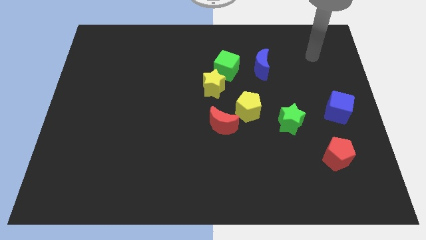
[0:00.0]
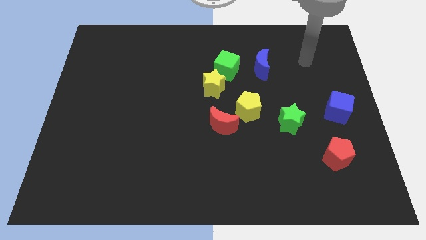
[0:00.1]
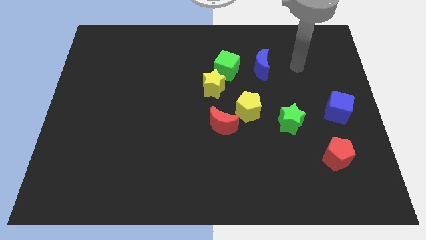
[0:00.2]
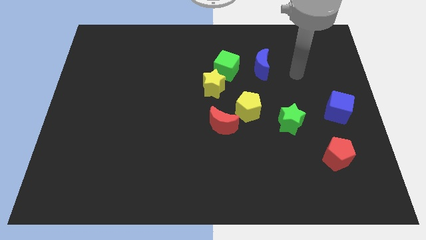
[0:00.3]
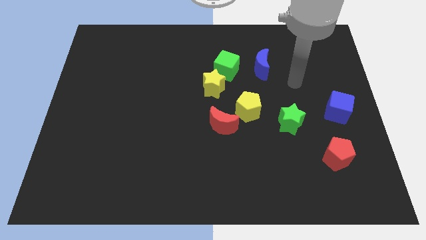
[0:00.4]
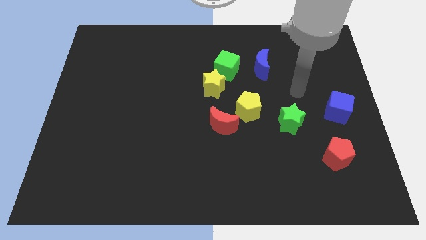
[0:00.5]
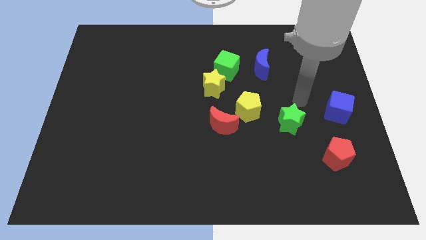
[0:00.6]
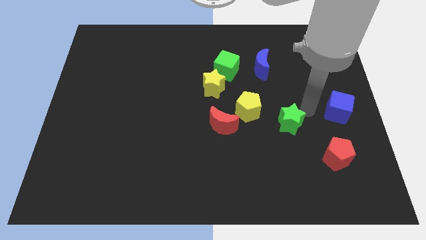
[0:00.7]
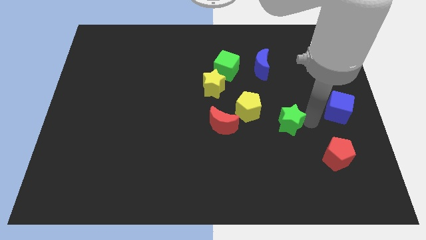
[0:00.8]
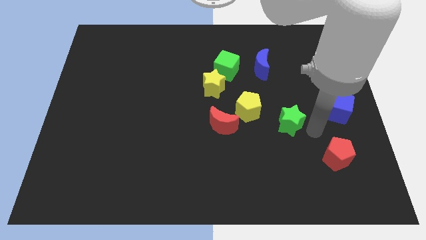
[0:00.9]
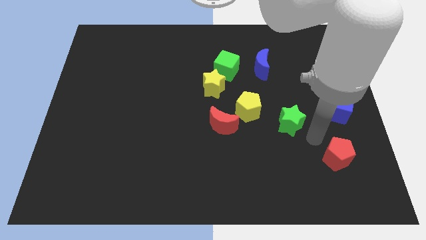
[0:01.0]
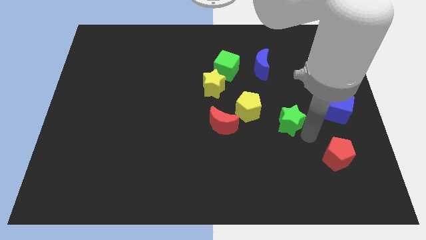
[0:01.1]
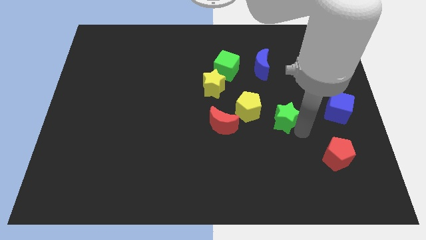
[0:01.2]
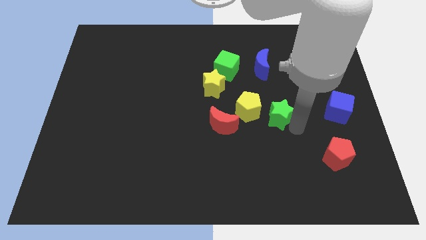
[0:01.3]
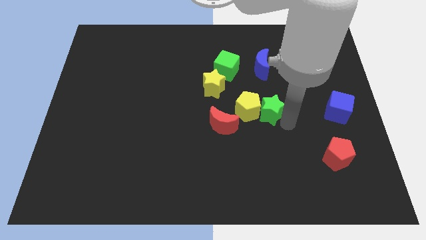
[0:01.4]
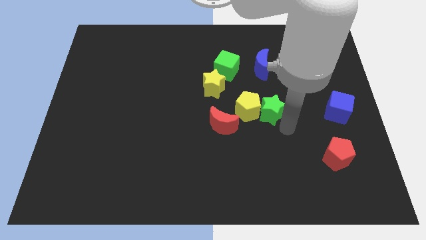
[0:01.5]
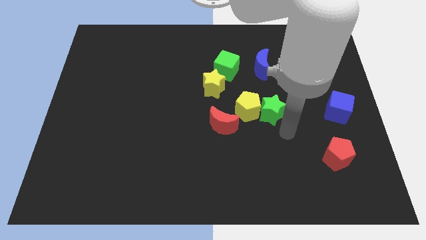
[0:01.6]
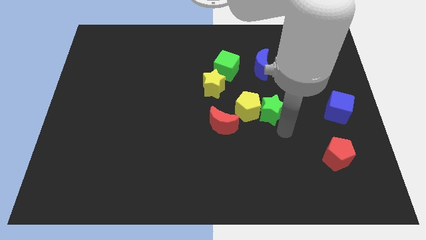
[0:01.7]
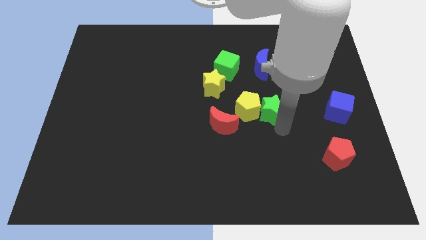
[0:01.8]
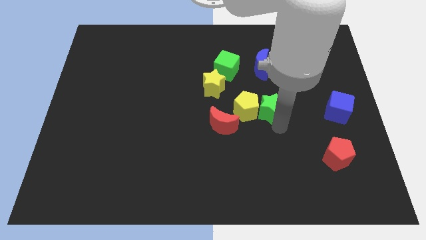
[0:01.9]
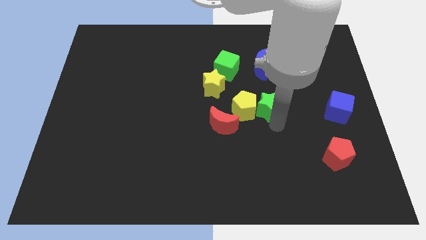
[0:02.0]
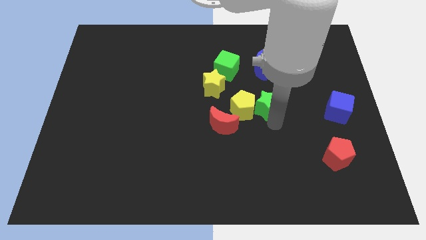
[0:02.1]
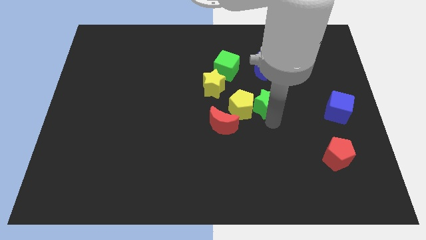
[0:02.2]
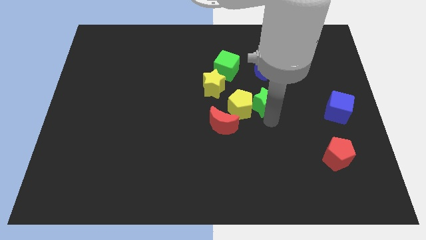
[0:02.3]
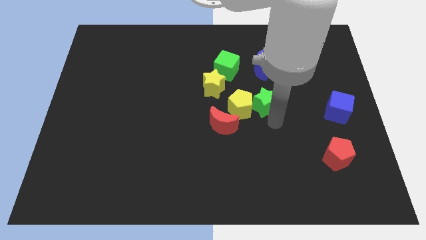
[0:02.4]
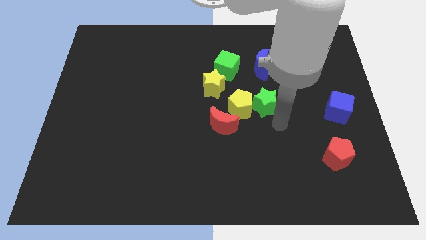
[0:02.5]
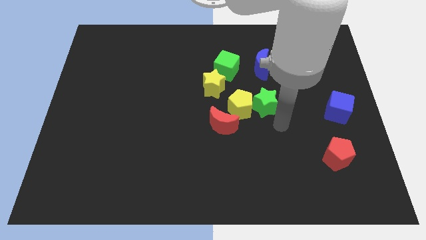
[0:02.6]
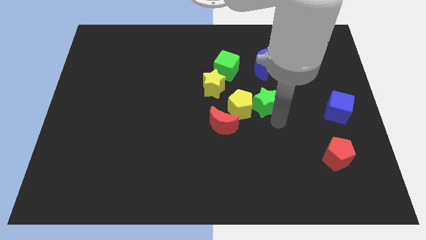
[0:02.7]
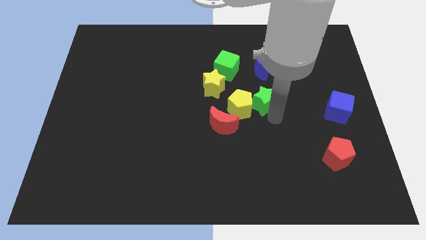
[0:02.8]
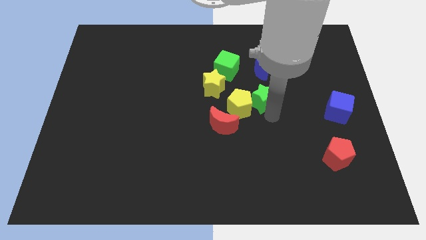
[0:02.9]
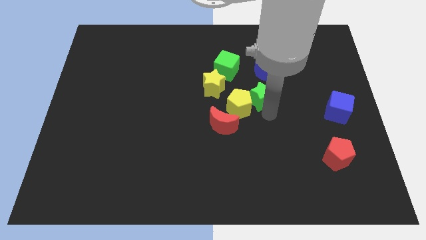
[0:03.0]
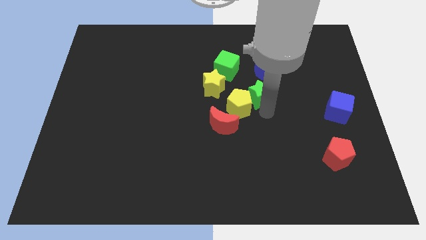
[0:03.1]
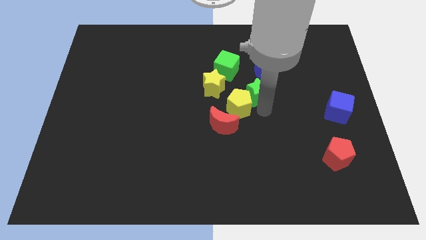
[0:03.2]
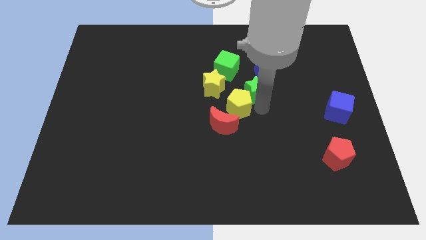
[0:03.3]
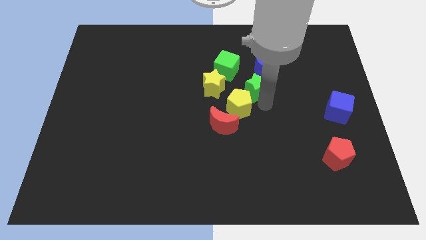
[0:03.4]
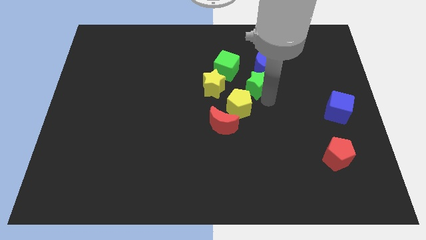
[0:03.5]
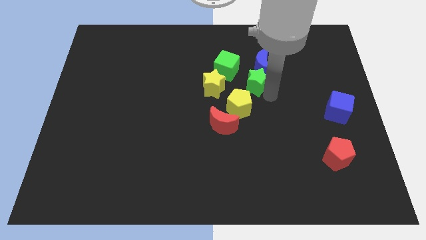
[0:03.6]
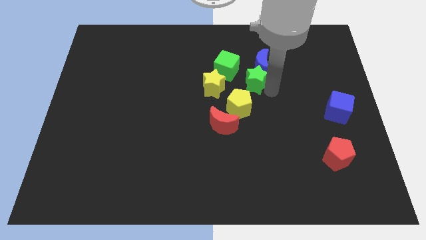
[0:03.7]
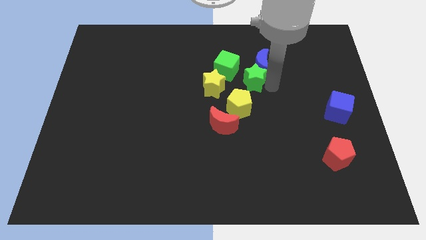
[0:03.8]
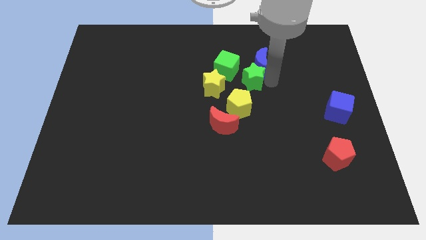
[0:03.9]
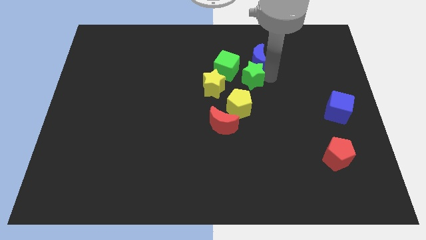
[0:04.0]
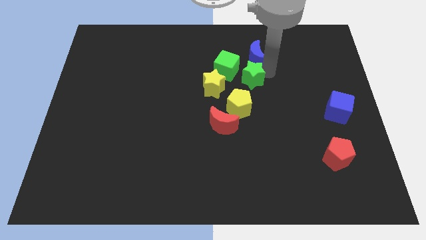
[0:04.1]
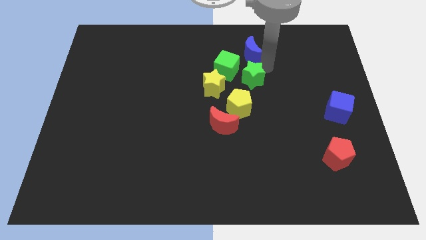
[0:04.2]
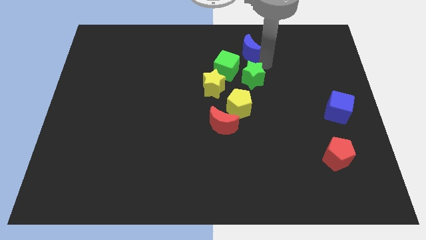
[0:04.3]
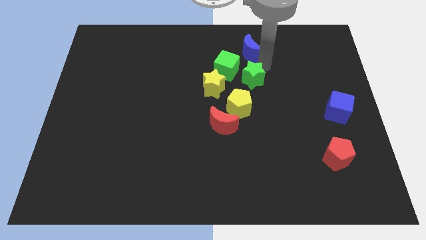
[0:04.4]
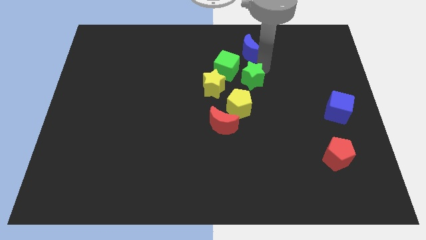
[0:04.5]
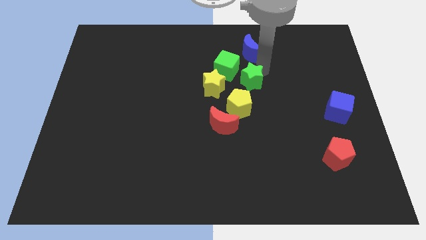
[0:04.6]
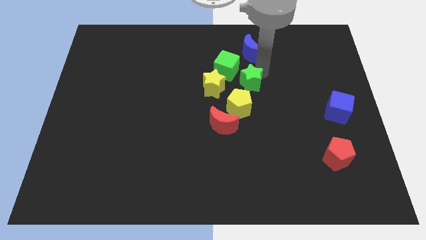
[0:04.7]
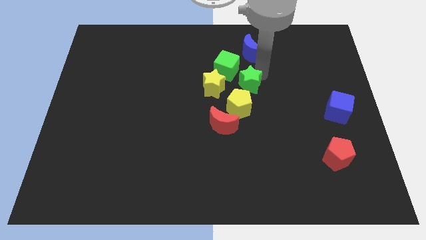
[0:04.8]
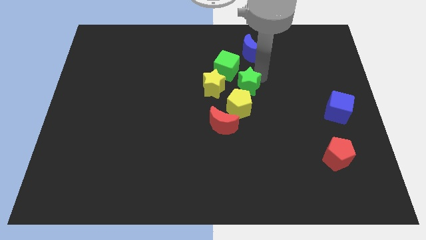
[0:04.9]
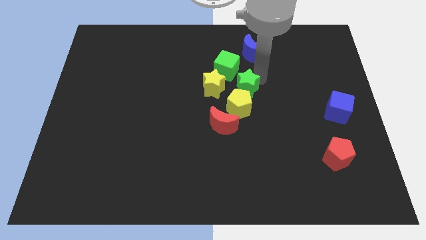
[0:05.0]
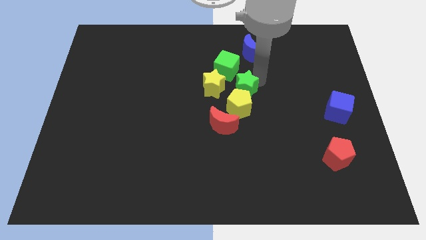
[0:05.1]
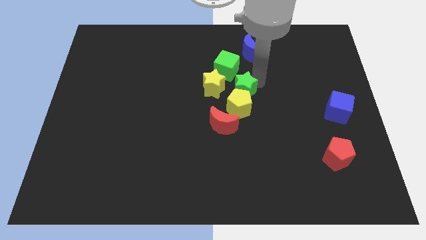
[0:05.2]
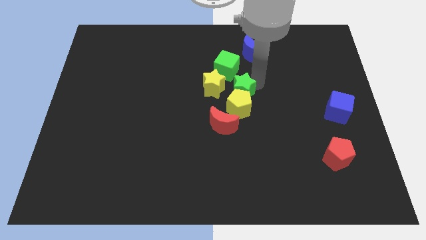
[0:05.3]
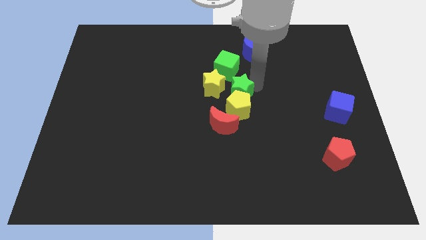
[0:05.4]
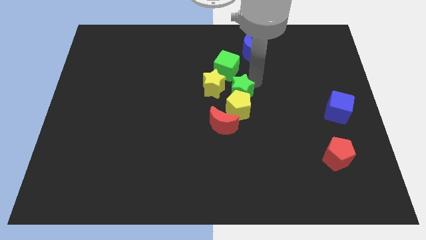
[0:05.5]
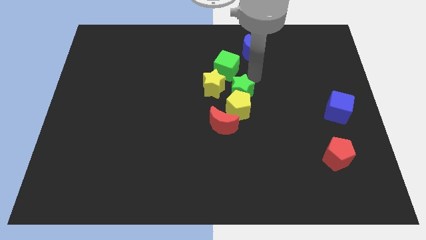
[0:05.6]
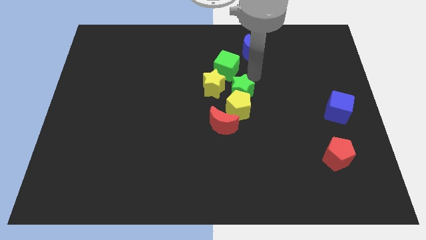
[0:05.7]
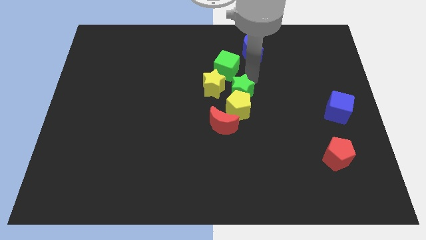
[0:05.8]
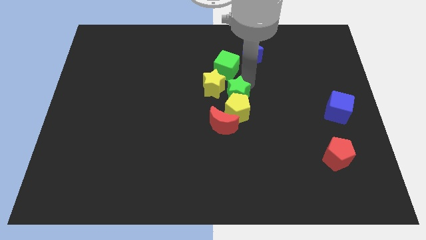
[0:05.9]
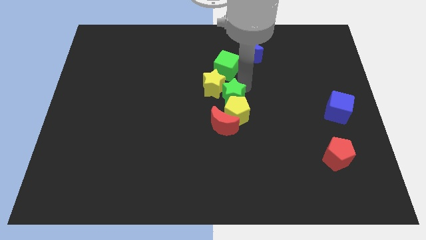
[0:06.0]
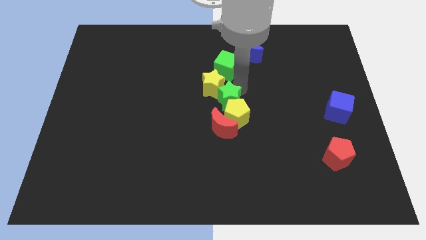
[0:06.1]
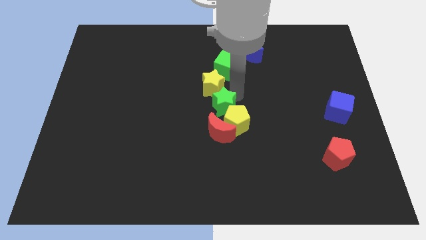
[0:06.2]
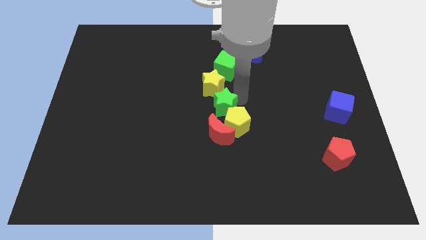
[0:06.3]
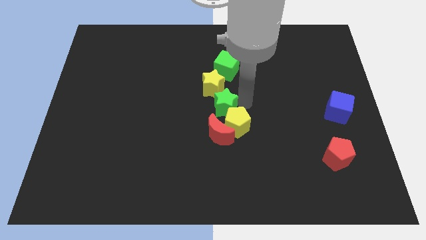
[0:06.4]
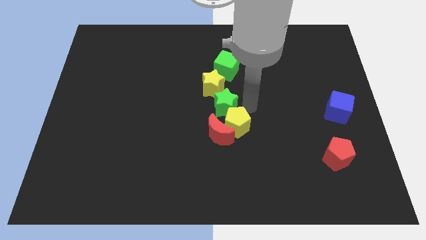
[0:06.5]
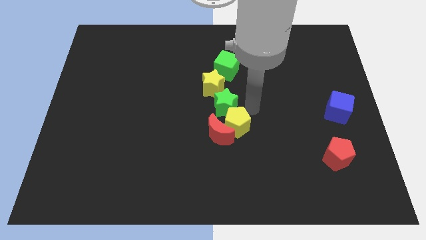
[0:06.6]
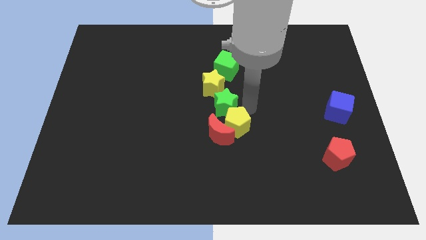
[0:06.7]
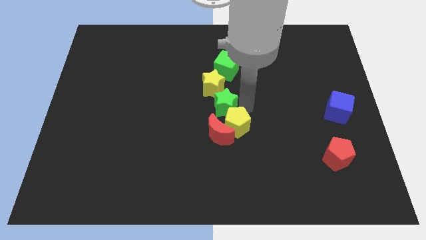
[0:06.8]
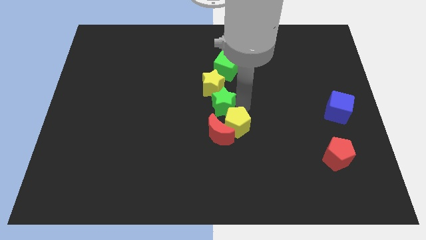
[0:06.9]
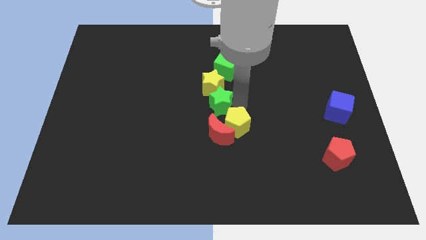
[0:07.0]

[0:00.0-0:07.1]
slide the green star to the bottom left side of the yellow star

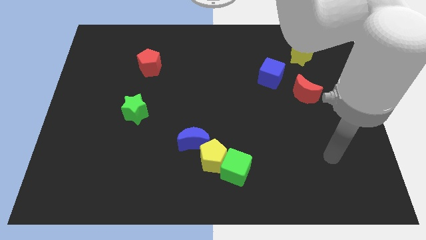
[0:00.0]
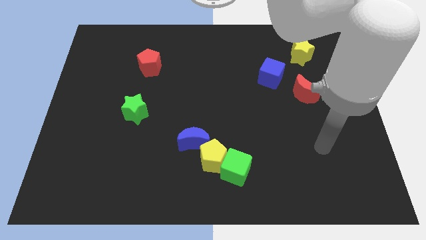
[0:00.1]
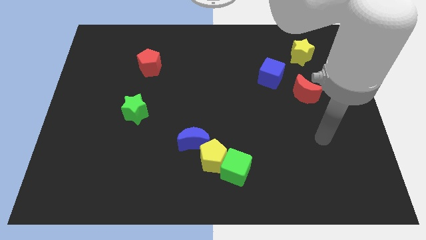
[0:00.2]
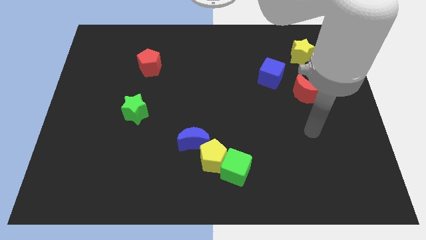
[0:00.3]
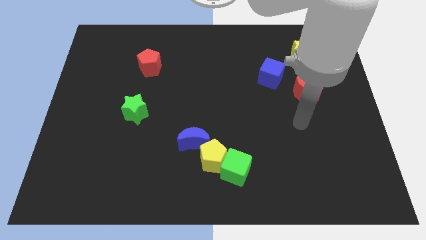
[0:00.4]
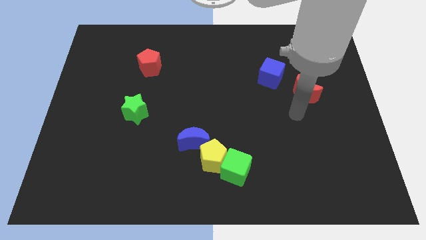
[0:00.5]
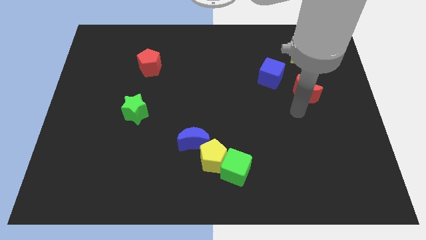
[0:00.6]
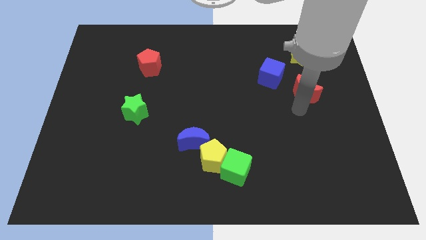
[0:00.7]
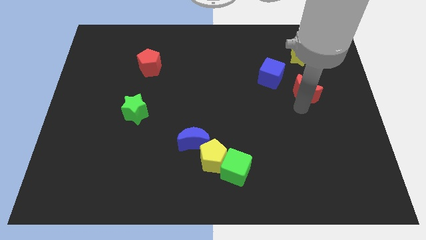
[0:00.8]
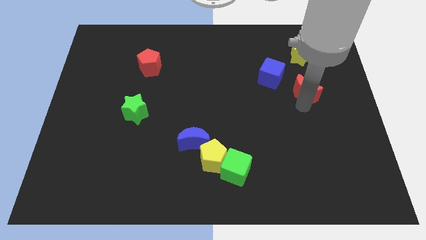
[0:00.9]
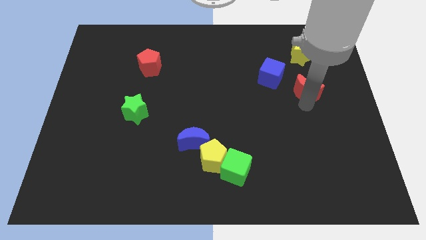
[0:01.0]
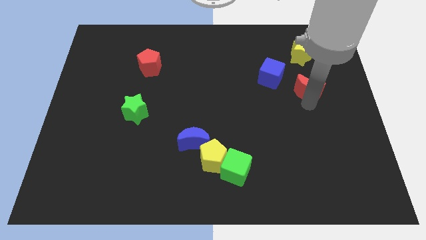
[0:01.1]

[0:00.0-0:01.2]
put the red moon just right of the blue cube
